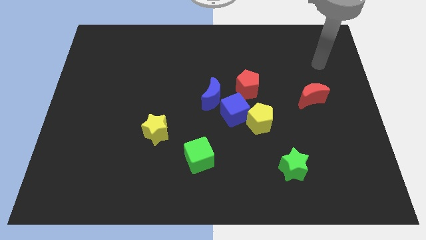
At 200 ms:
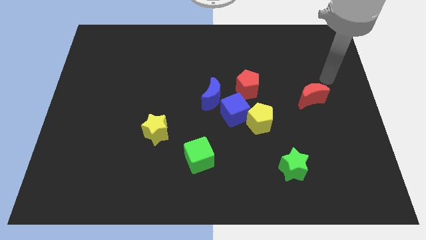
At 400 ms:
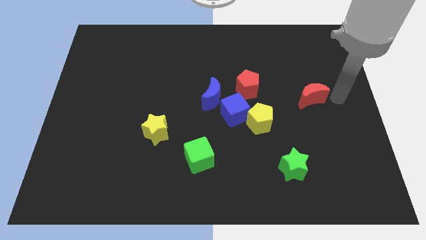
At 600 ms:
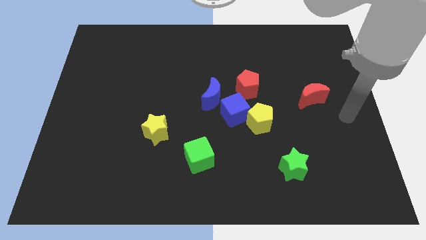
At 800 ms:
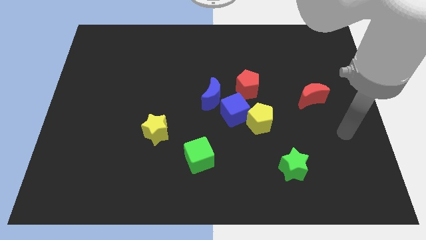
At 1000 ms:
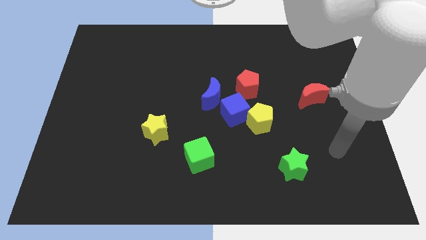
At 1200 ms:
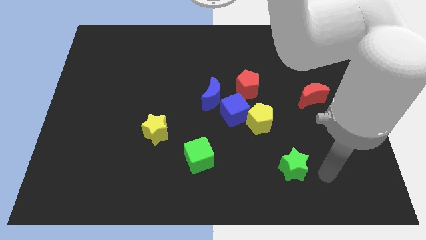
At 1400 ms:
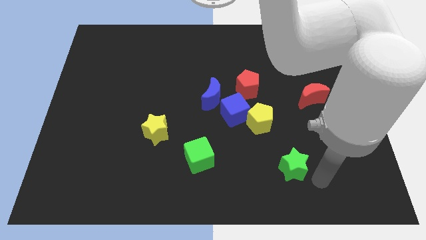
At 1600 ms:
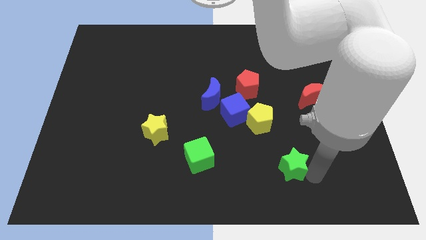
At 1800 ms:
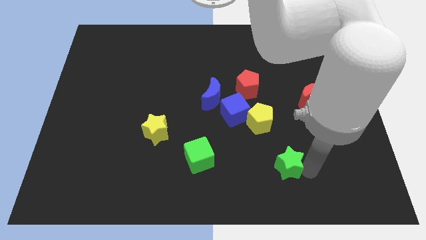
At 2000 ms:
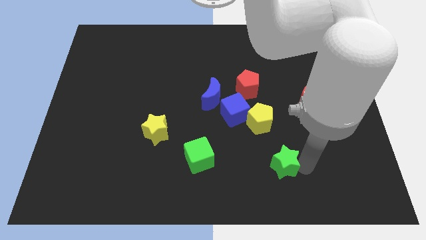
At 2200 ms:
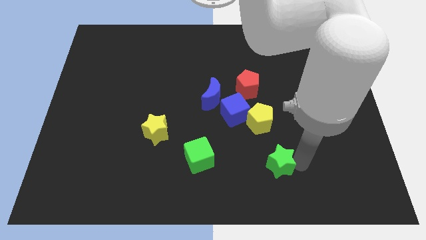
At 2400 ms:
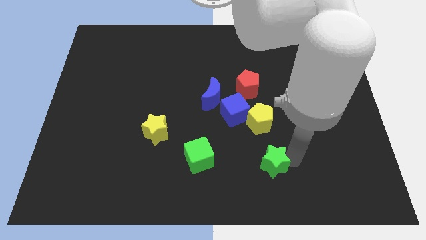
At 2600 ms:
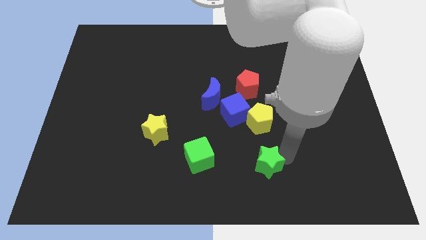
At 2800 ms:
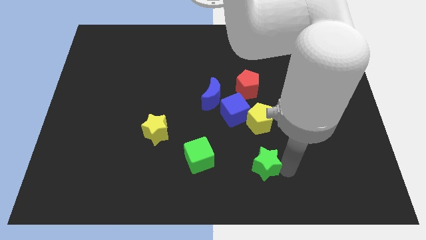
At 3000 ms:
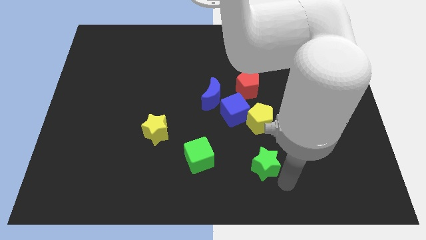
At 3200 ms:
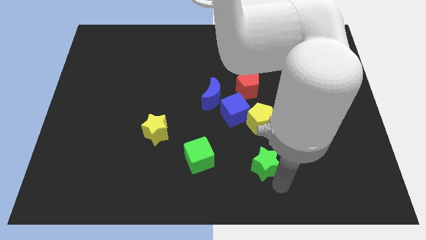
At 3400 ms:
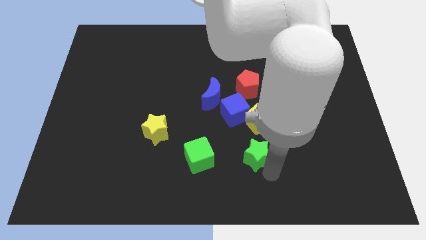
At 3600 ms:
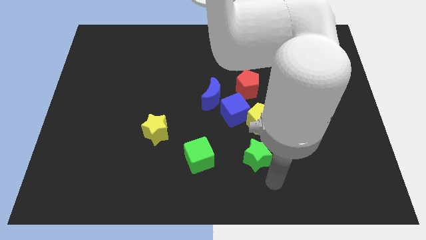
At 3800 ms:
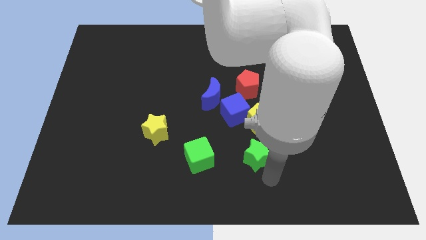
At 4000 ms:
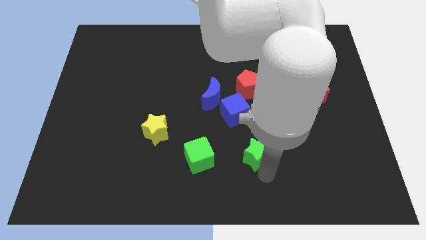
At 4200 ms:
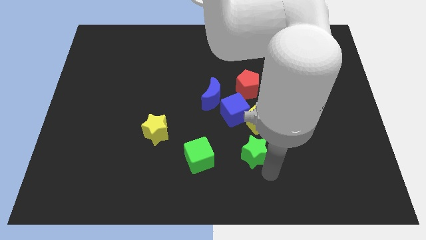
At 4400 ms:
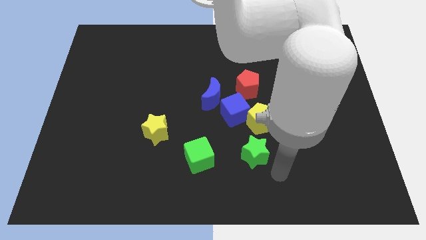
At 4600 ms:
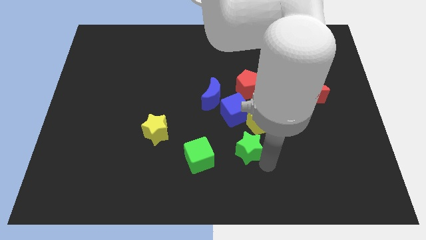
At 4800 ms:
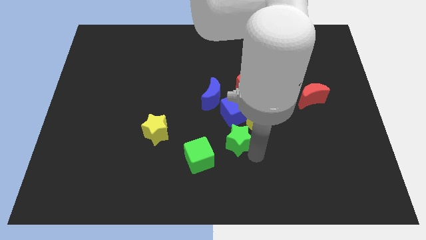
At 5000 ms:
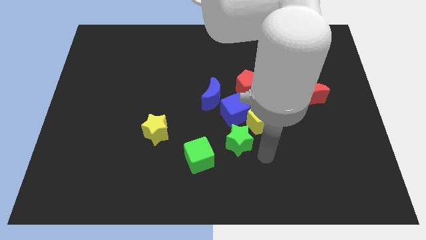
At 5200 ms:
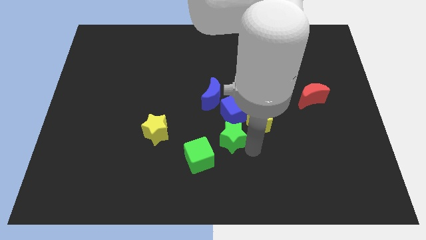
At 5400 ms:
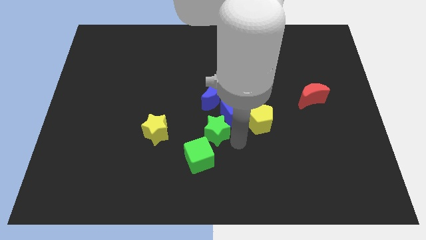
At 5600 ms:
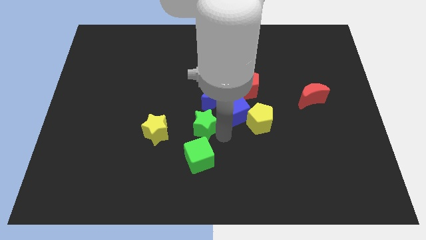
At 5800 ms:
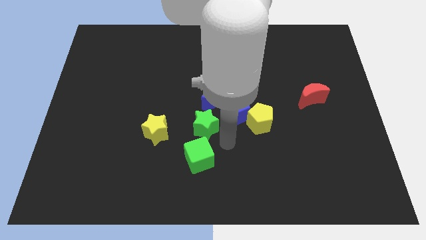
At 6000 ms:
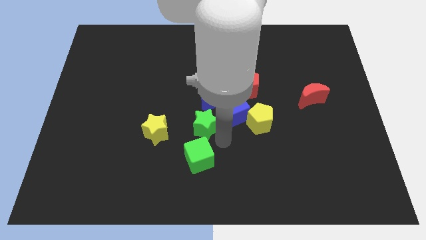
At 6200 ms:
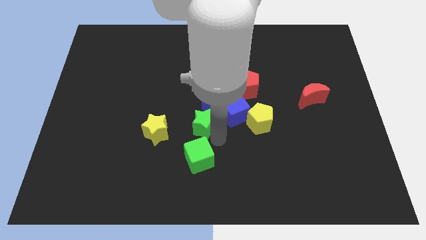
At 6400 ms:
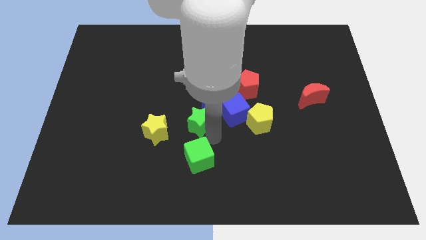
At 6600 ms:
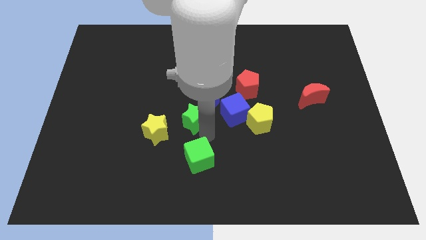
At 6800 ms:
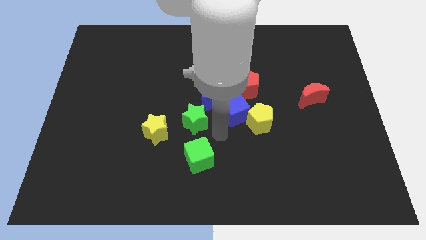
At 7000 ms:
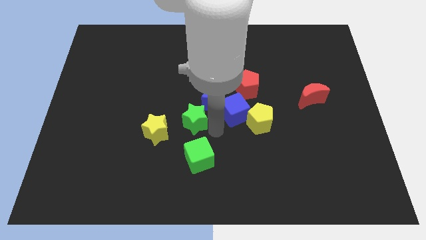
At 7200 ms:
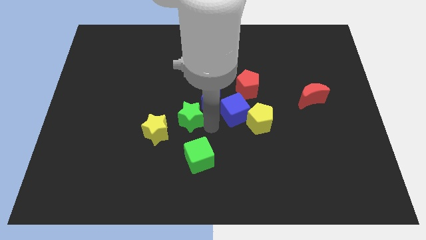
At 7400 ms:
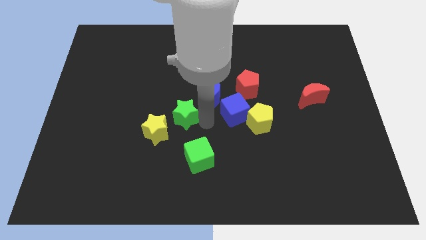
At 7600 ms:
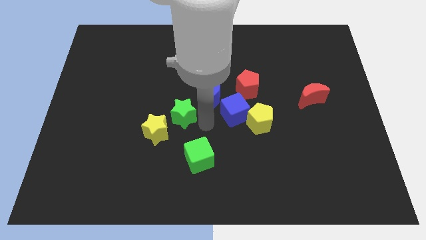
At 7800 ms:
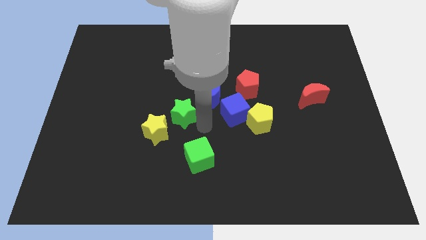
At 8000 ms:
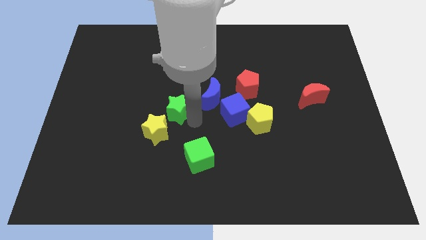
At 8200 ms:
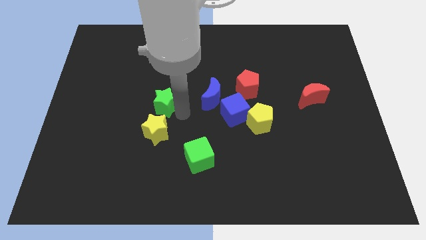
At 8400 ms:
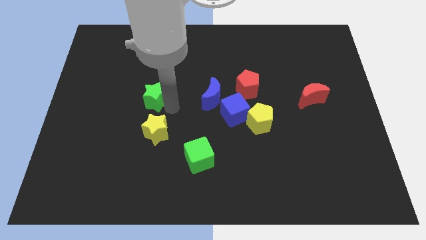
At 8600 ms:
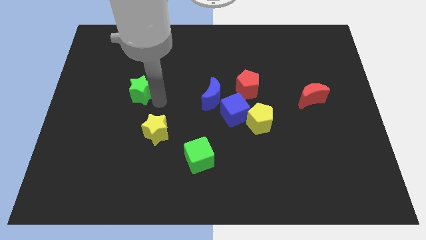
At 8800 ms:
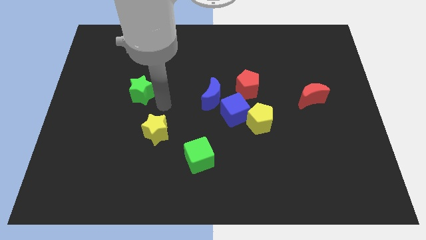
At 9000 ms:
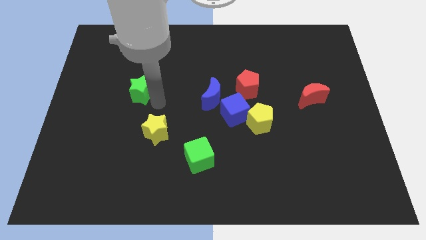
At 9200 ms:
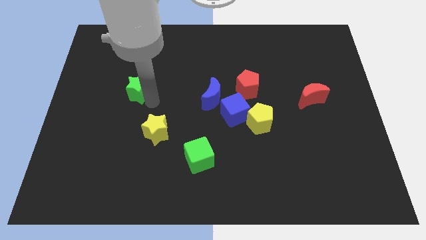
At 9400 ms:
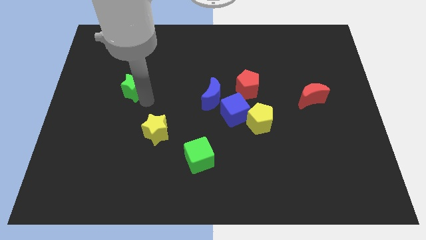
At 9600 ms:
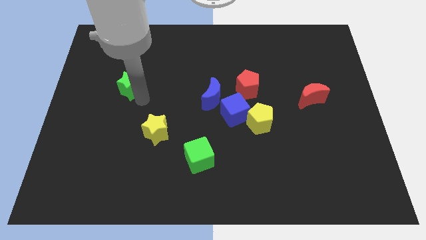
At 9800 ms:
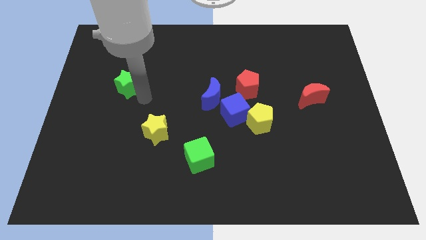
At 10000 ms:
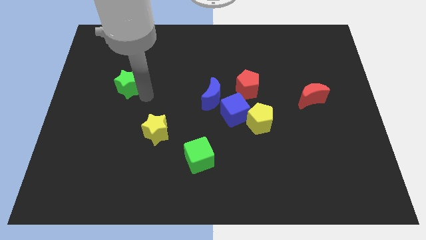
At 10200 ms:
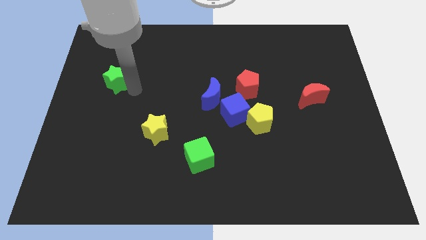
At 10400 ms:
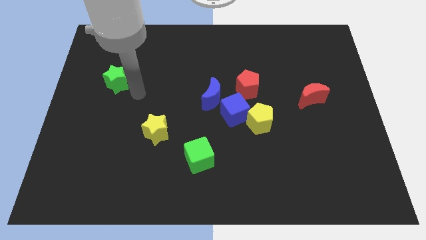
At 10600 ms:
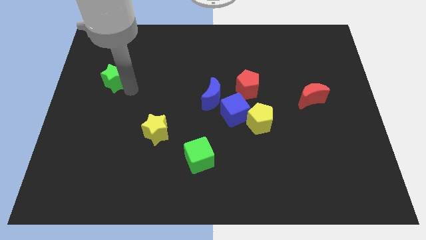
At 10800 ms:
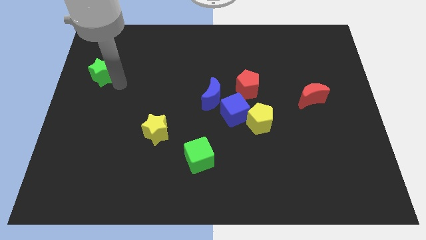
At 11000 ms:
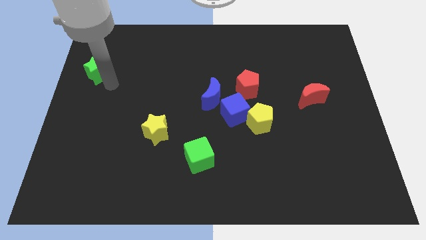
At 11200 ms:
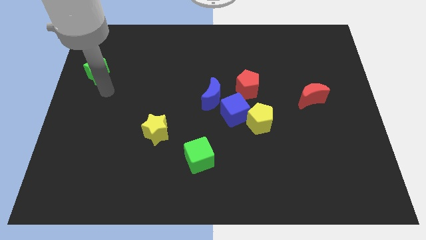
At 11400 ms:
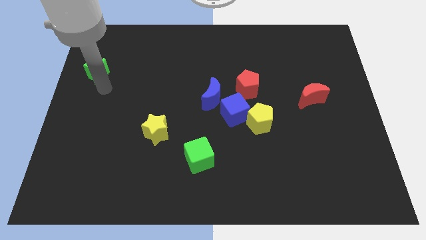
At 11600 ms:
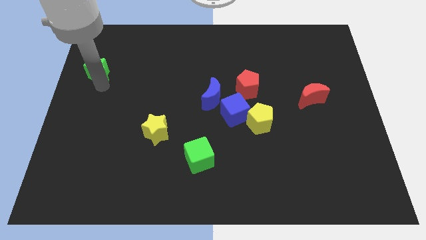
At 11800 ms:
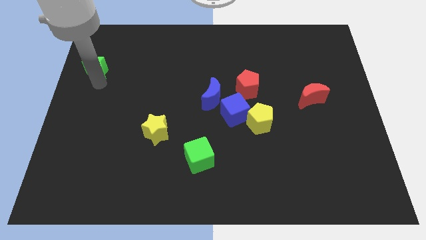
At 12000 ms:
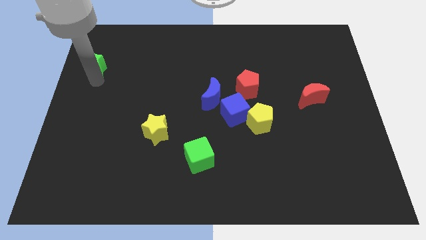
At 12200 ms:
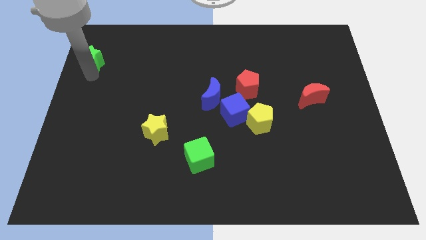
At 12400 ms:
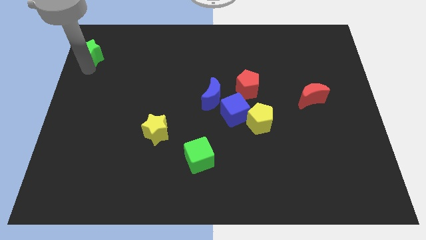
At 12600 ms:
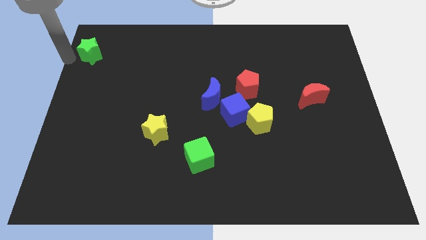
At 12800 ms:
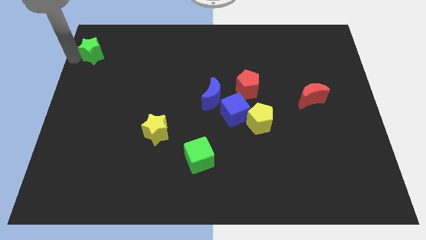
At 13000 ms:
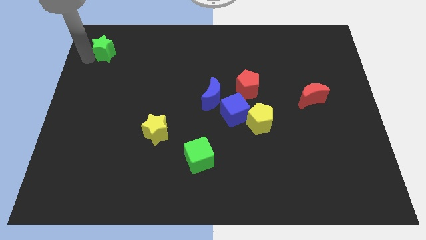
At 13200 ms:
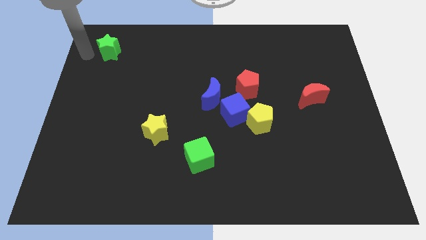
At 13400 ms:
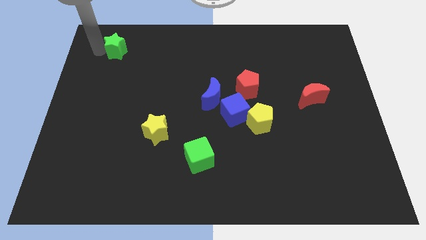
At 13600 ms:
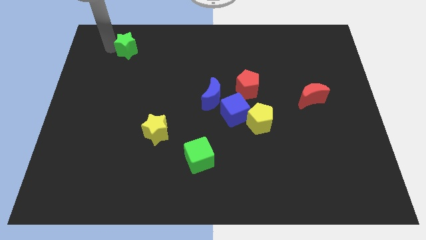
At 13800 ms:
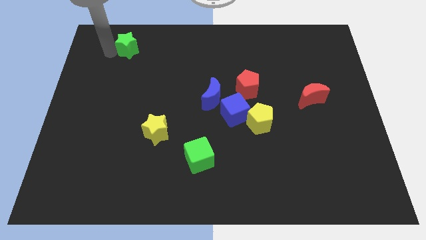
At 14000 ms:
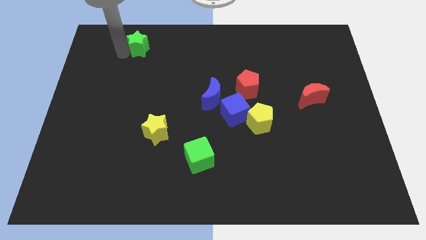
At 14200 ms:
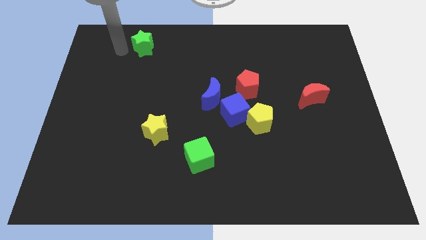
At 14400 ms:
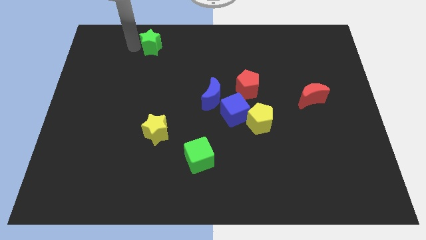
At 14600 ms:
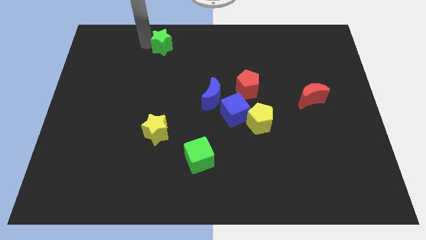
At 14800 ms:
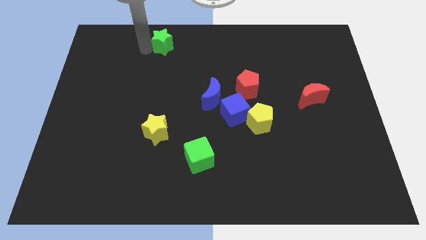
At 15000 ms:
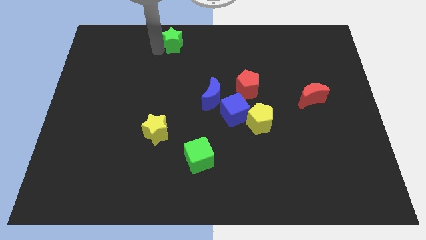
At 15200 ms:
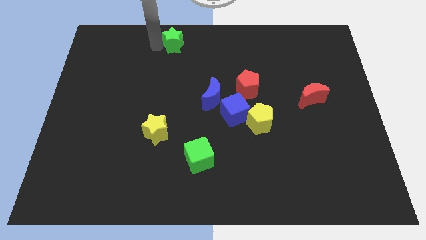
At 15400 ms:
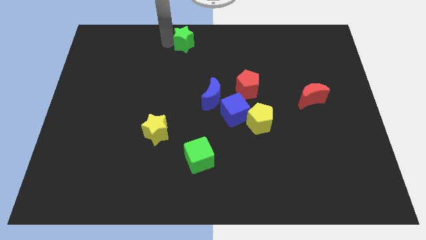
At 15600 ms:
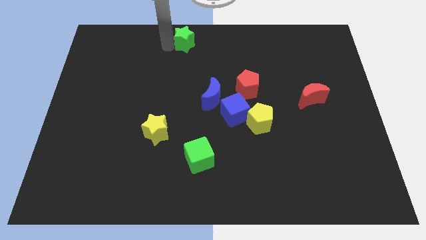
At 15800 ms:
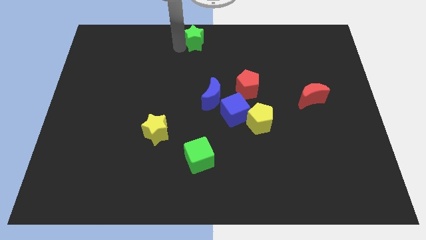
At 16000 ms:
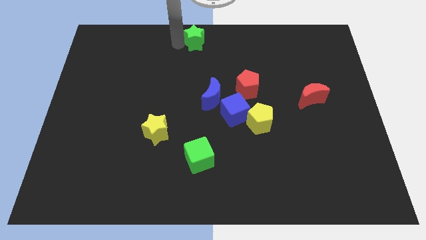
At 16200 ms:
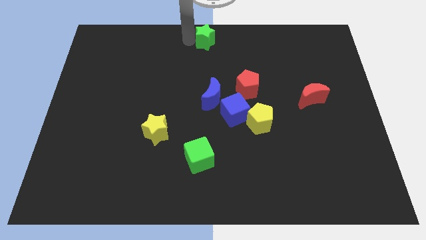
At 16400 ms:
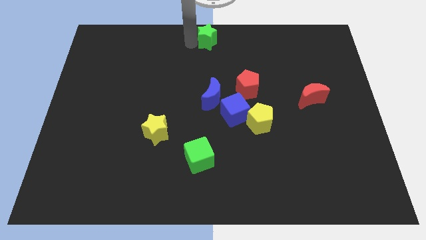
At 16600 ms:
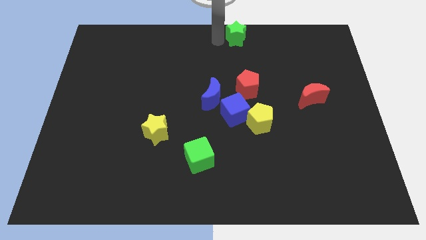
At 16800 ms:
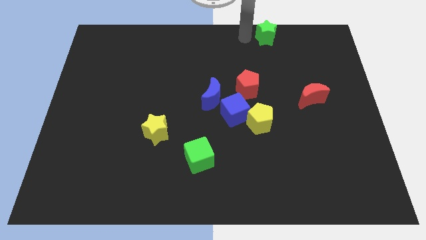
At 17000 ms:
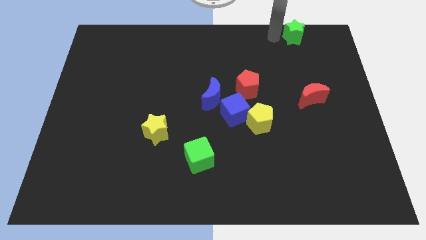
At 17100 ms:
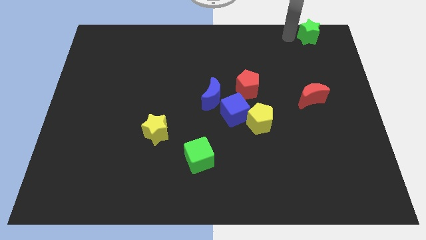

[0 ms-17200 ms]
push the green star to the top right of the board
